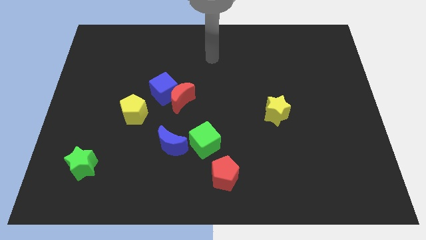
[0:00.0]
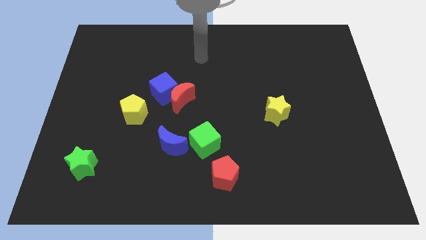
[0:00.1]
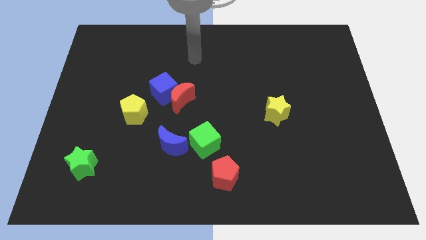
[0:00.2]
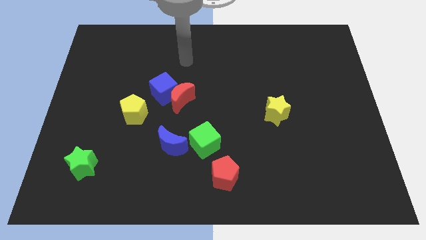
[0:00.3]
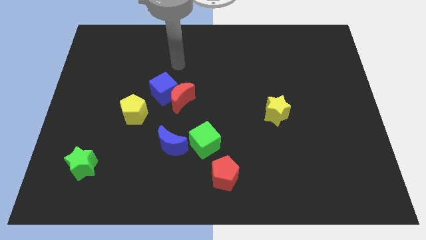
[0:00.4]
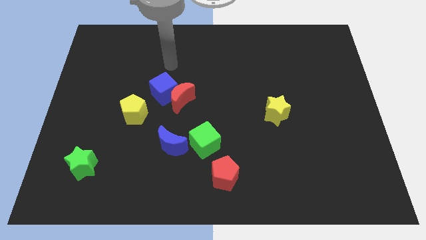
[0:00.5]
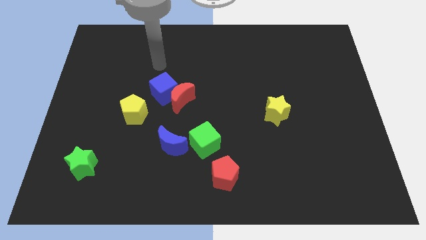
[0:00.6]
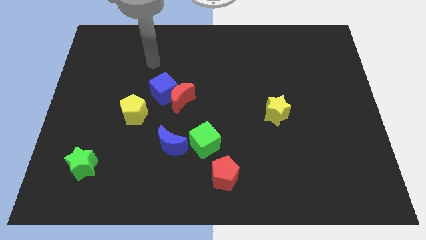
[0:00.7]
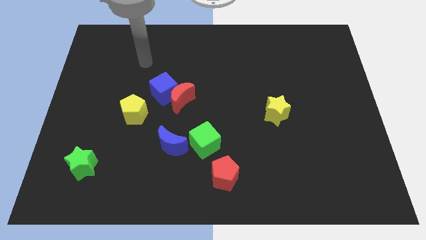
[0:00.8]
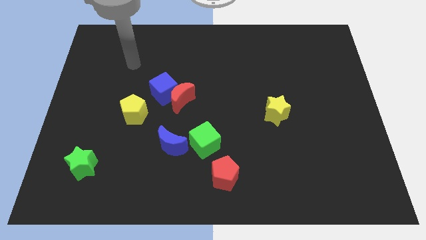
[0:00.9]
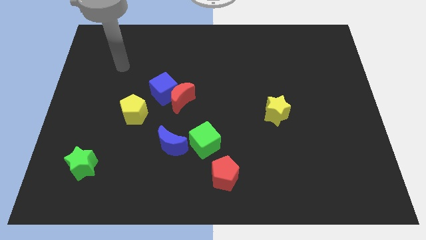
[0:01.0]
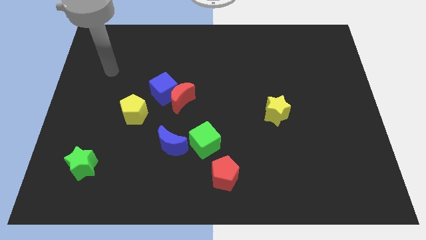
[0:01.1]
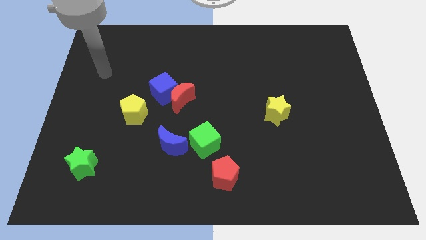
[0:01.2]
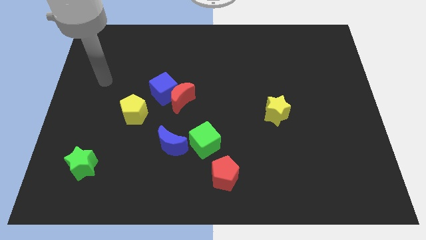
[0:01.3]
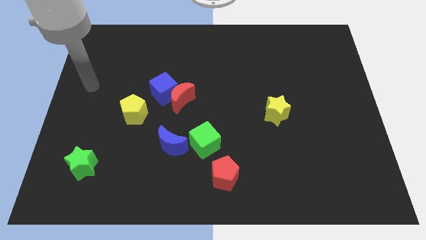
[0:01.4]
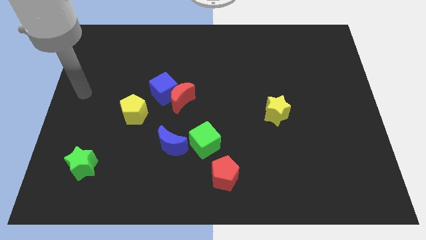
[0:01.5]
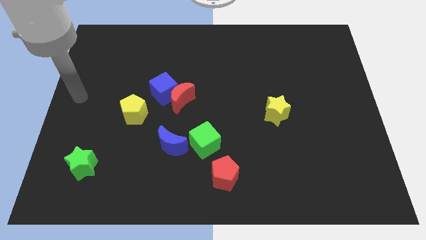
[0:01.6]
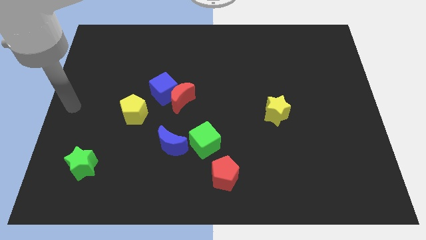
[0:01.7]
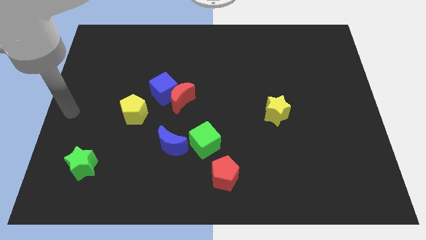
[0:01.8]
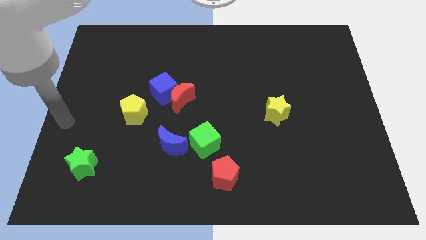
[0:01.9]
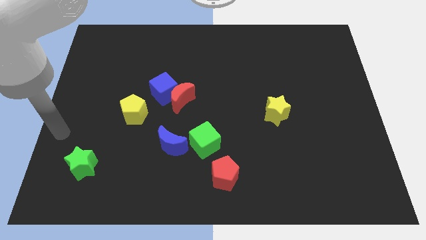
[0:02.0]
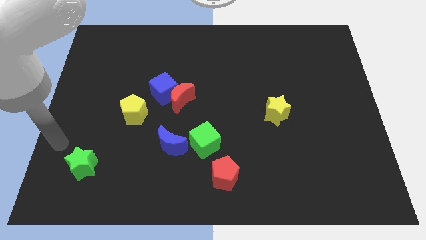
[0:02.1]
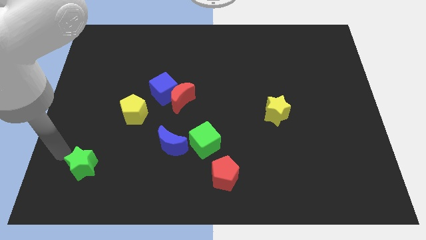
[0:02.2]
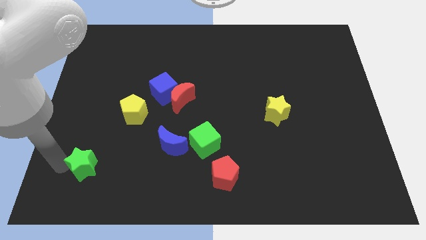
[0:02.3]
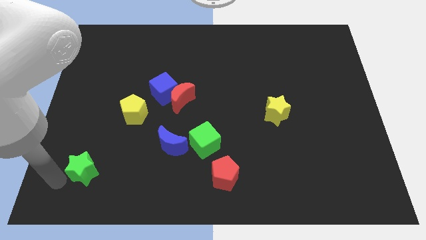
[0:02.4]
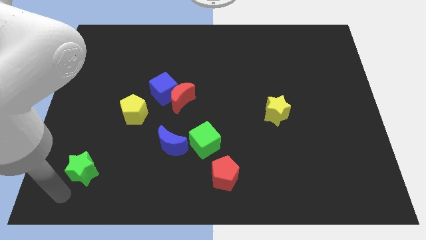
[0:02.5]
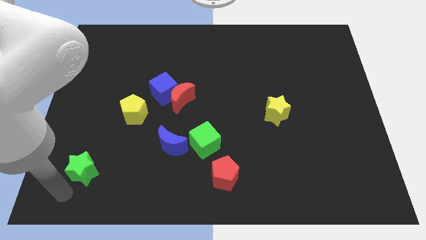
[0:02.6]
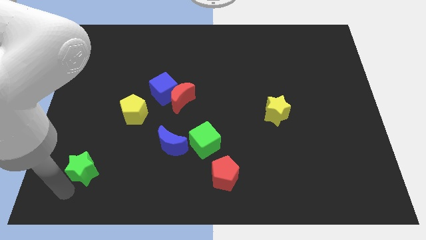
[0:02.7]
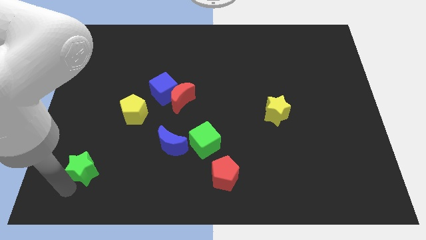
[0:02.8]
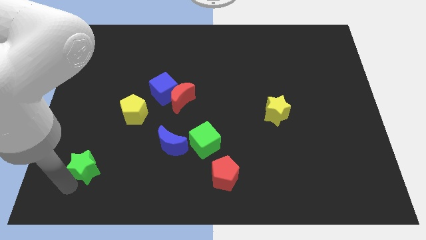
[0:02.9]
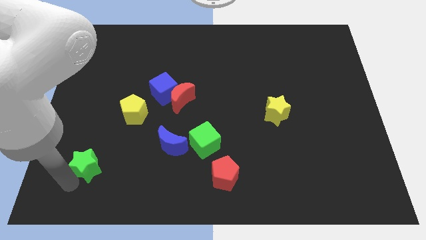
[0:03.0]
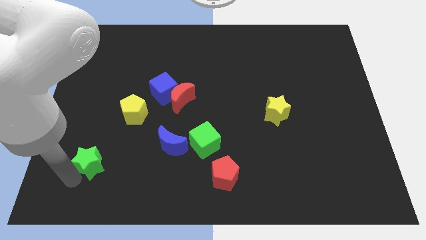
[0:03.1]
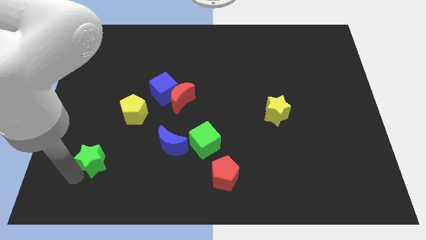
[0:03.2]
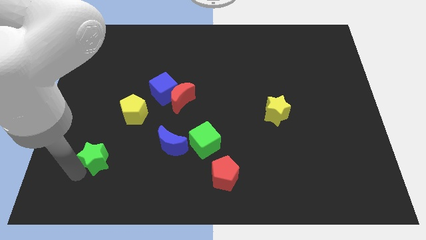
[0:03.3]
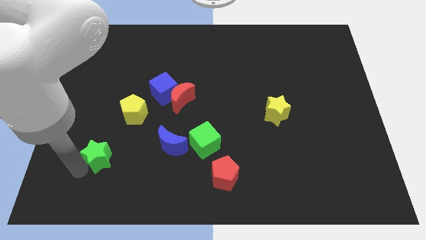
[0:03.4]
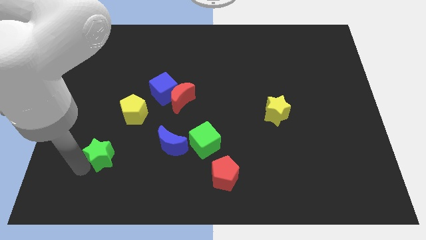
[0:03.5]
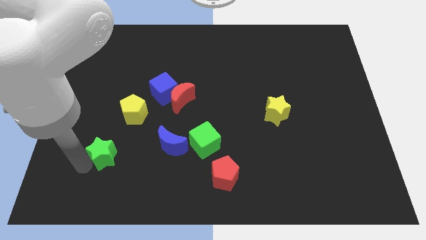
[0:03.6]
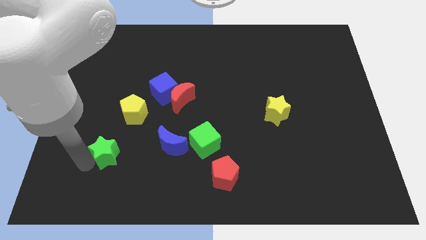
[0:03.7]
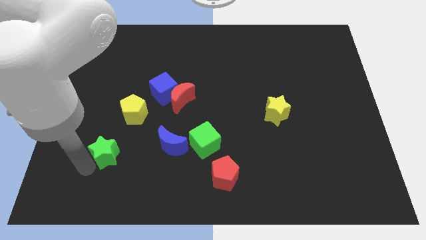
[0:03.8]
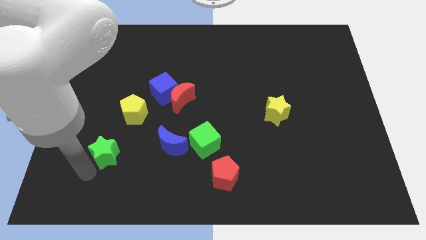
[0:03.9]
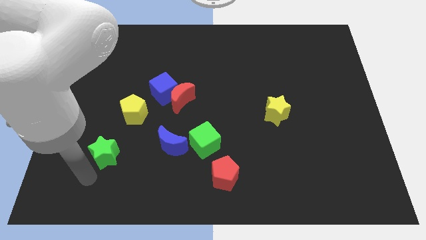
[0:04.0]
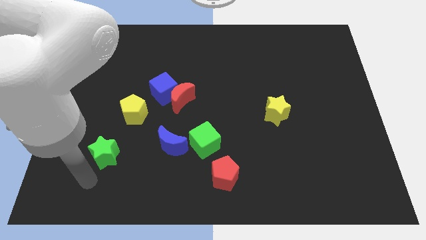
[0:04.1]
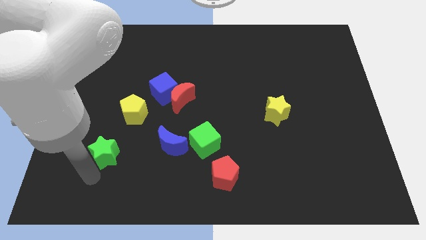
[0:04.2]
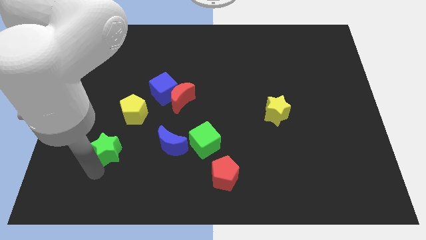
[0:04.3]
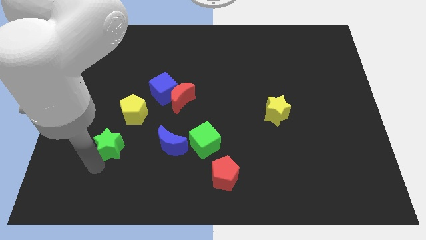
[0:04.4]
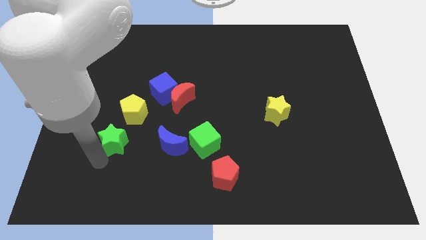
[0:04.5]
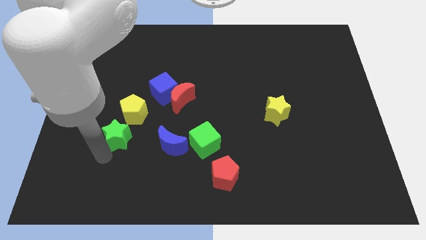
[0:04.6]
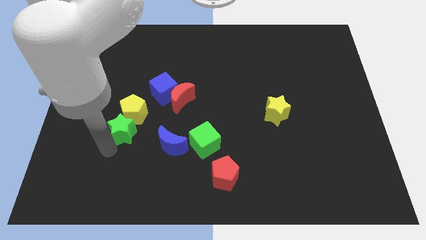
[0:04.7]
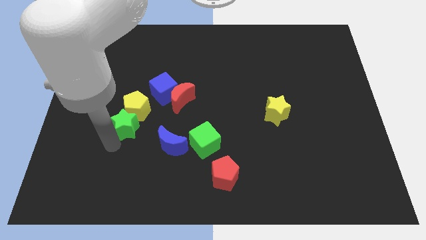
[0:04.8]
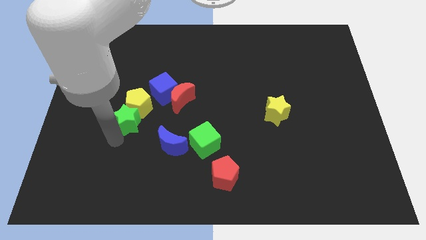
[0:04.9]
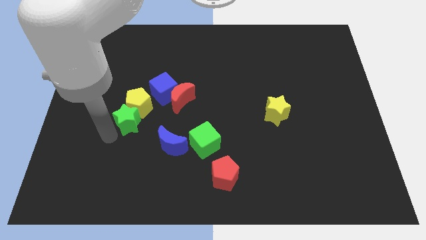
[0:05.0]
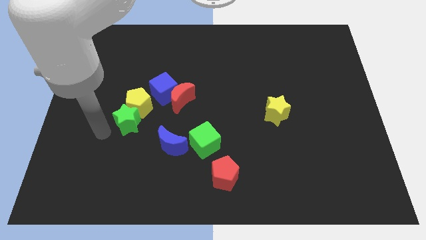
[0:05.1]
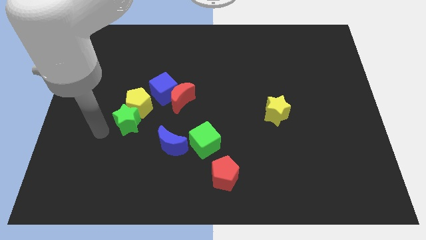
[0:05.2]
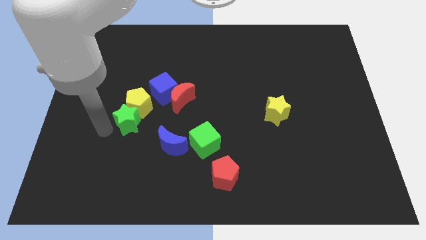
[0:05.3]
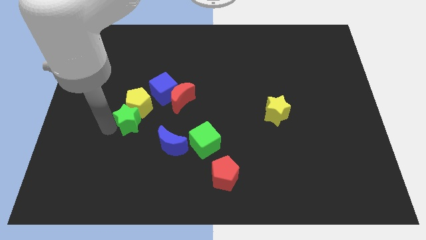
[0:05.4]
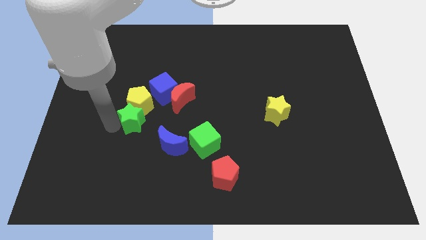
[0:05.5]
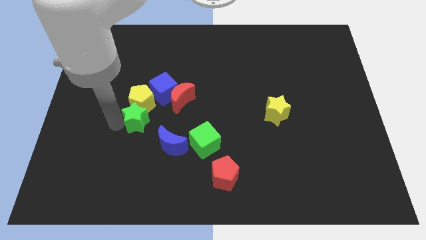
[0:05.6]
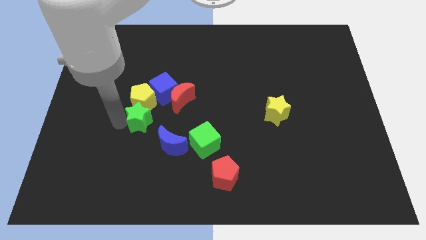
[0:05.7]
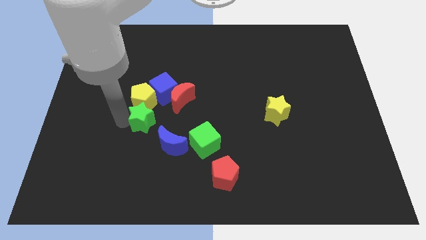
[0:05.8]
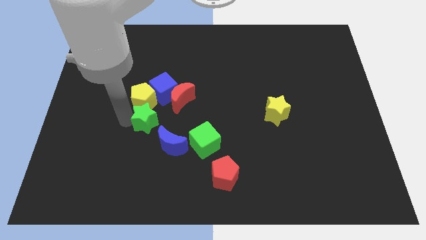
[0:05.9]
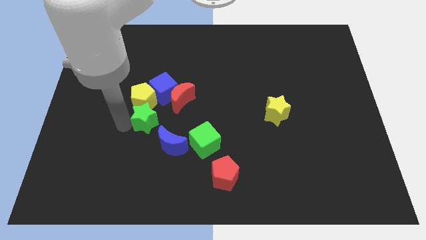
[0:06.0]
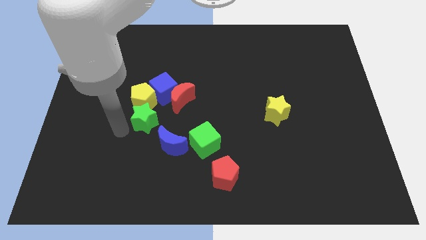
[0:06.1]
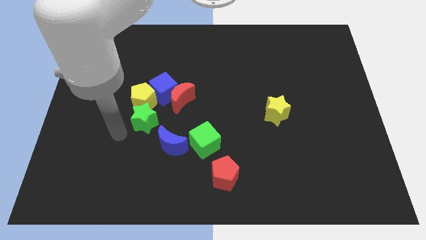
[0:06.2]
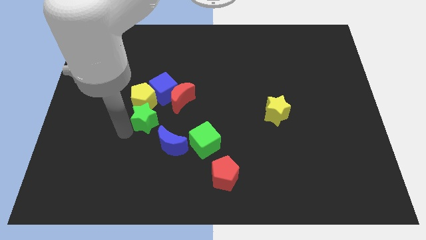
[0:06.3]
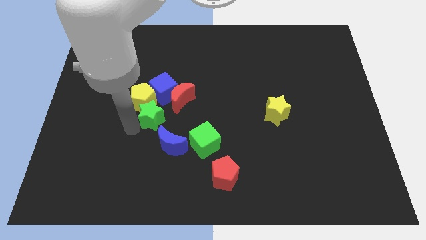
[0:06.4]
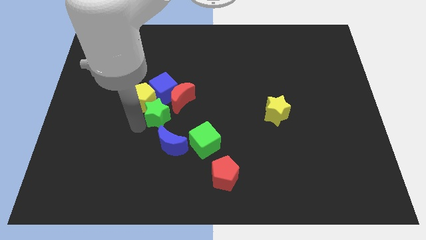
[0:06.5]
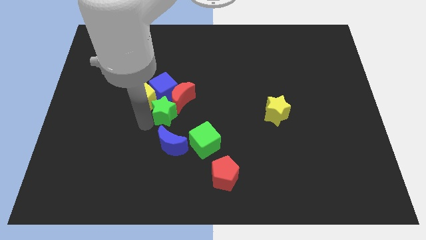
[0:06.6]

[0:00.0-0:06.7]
push the green star to the red moon
